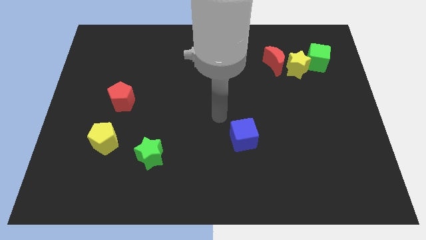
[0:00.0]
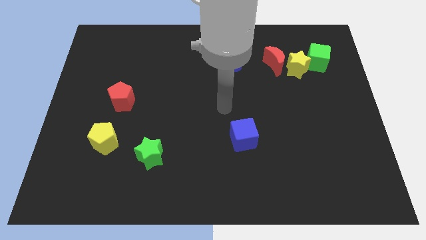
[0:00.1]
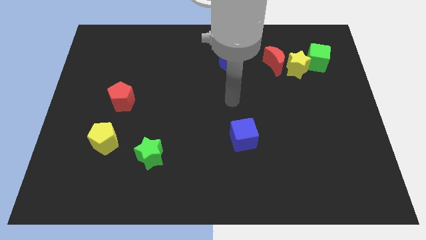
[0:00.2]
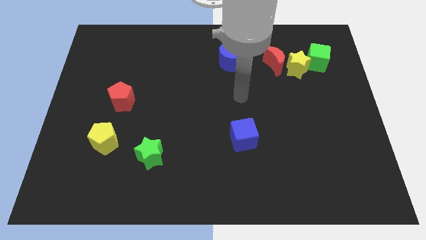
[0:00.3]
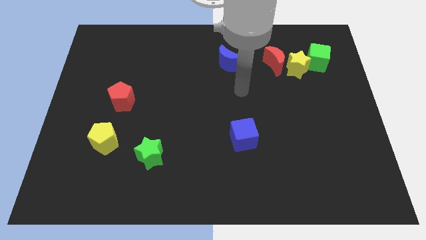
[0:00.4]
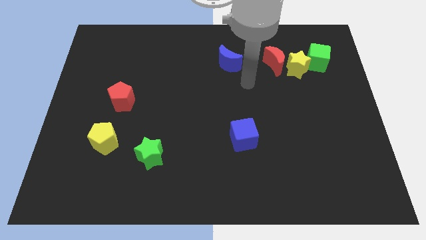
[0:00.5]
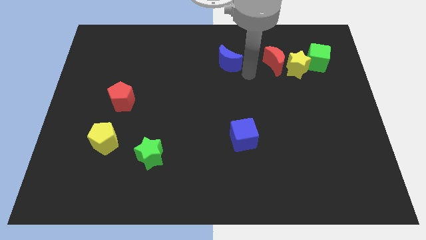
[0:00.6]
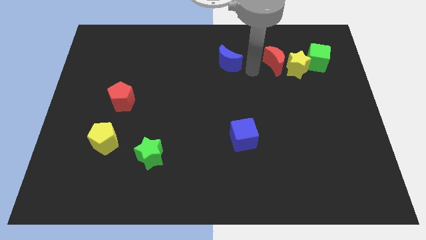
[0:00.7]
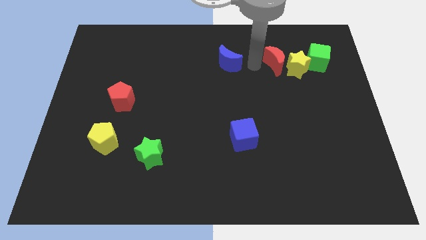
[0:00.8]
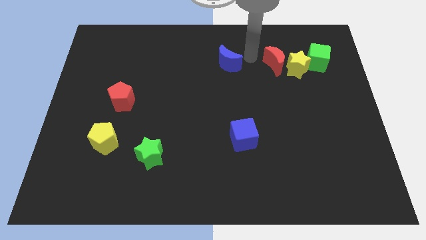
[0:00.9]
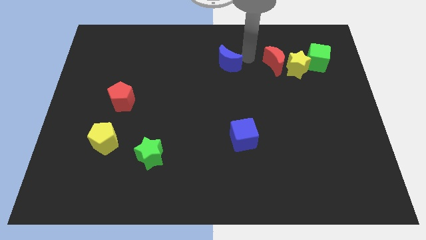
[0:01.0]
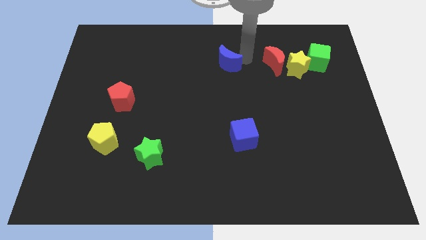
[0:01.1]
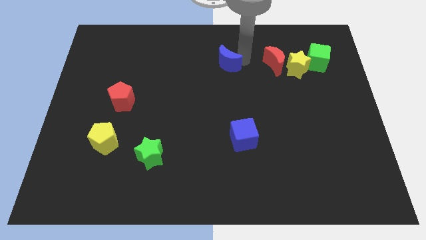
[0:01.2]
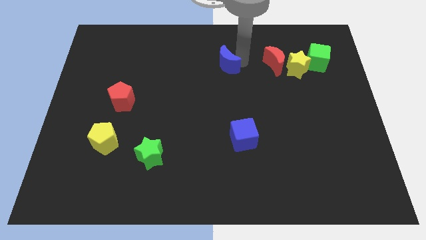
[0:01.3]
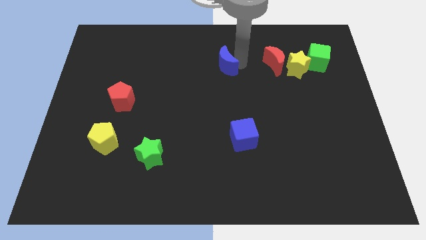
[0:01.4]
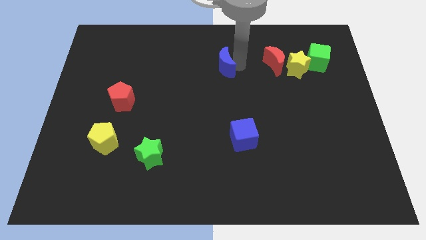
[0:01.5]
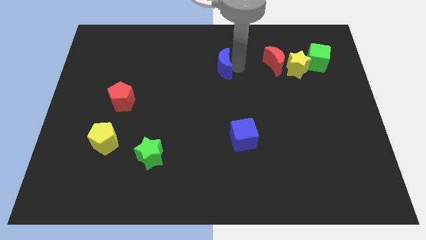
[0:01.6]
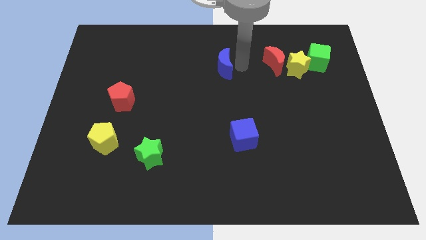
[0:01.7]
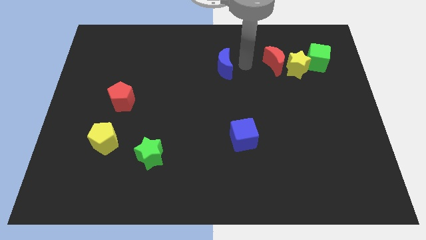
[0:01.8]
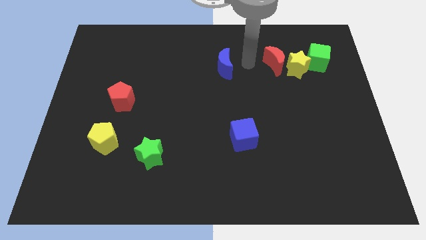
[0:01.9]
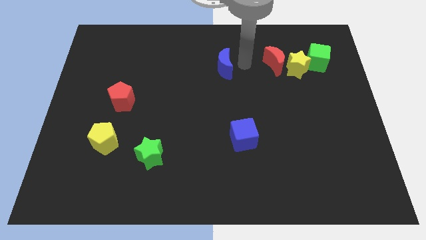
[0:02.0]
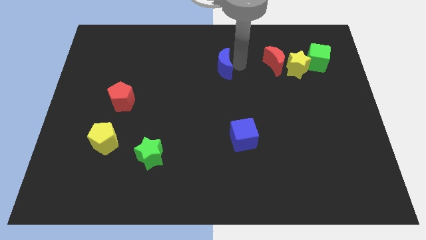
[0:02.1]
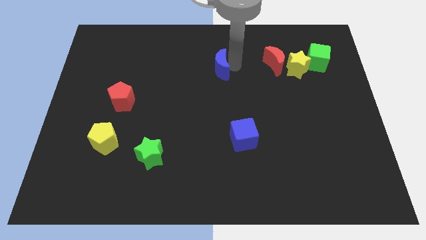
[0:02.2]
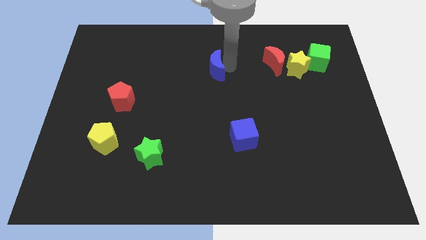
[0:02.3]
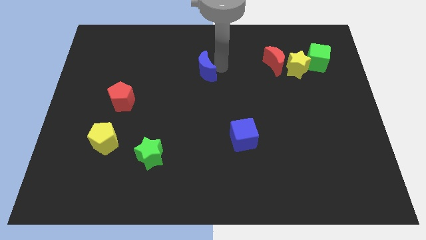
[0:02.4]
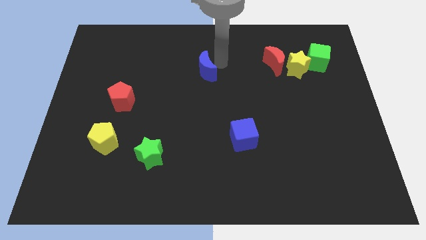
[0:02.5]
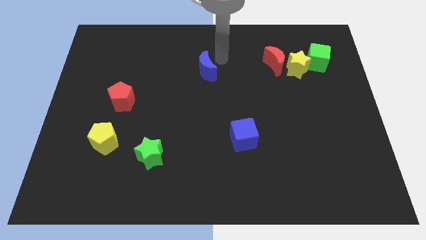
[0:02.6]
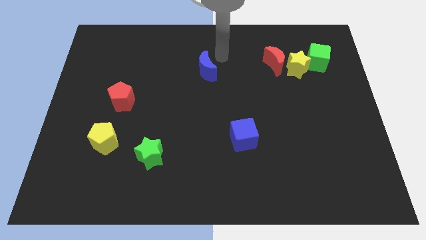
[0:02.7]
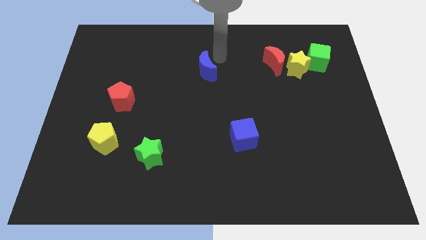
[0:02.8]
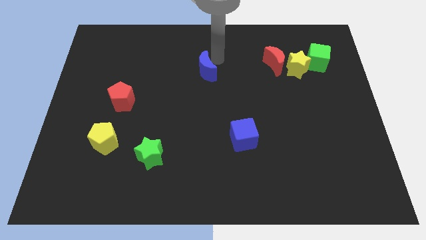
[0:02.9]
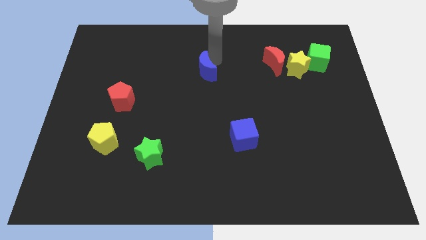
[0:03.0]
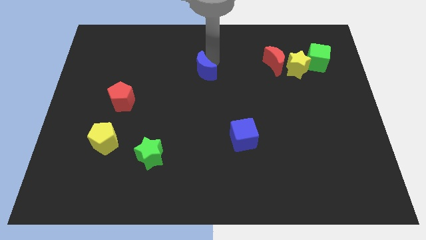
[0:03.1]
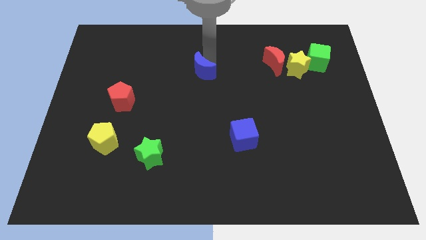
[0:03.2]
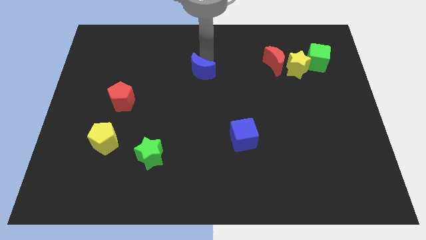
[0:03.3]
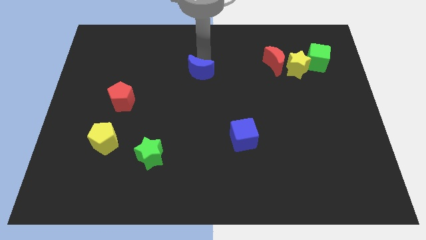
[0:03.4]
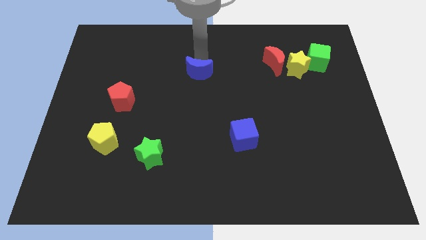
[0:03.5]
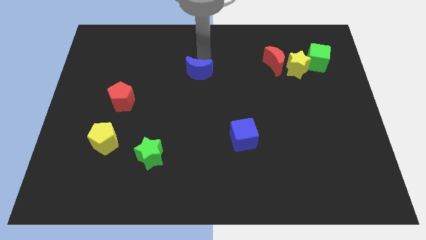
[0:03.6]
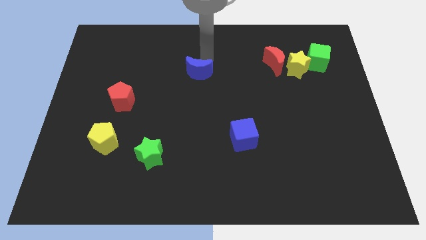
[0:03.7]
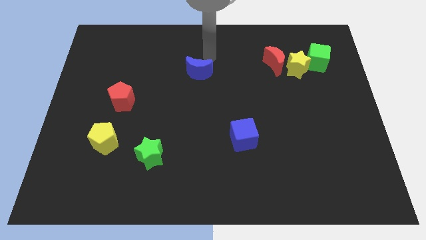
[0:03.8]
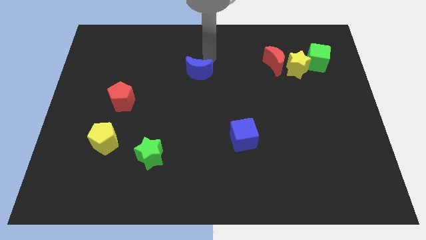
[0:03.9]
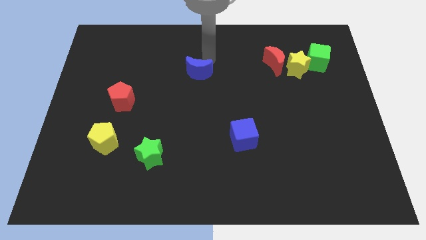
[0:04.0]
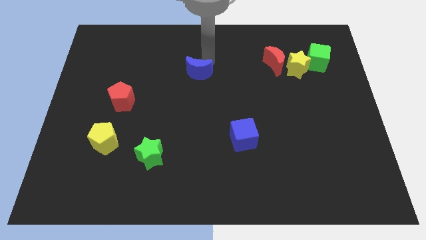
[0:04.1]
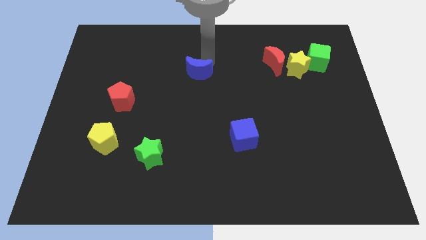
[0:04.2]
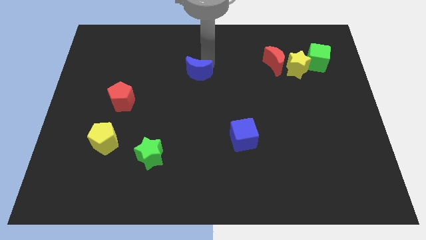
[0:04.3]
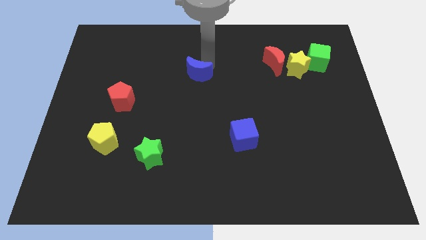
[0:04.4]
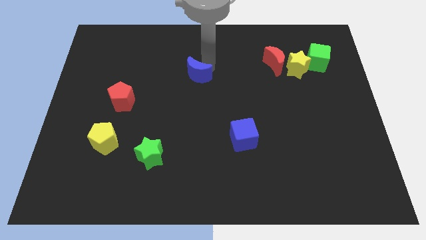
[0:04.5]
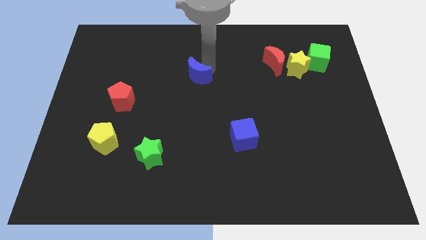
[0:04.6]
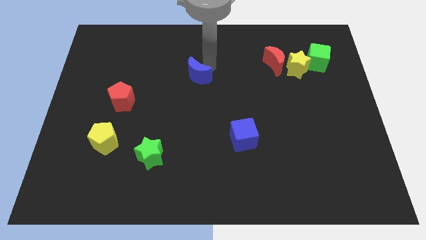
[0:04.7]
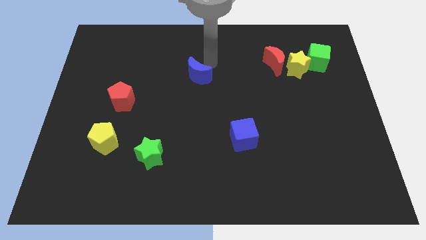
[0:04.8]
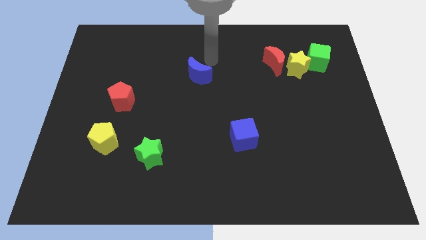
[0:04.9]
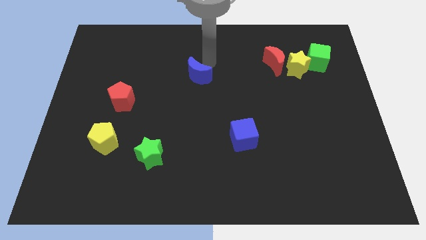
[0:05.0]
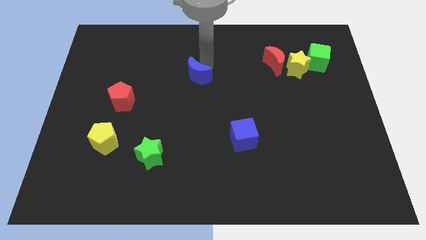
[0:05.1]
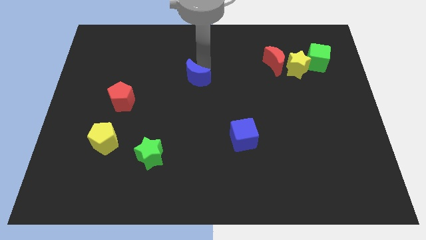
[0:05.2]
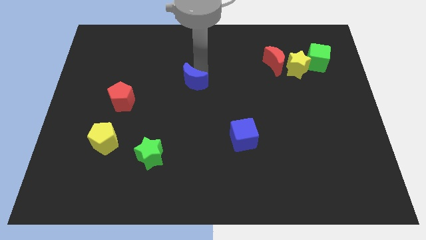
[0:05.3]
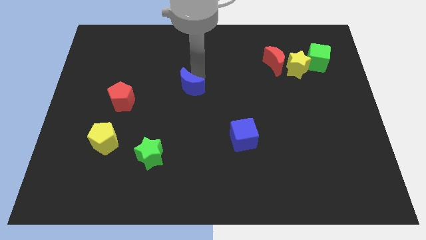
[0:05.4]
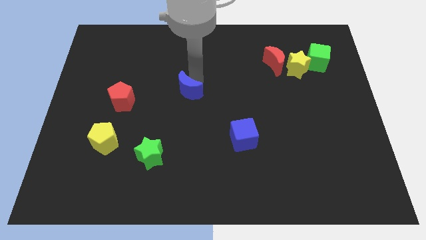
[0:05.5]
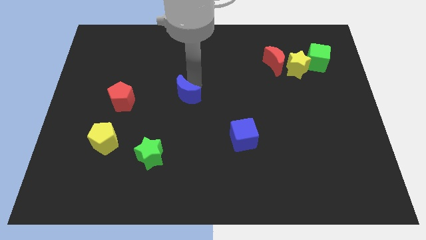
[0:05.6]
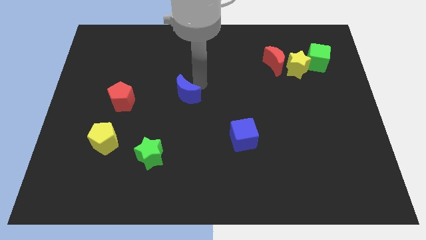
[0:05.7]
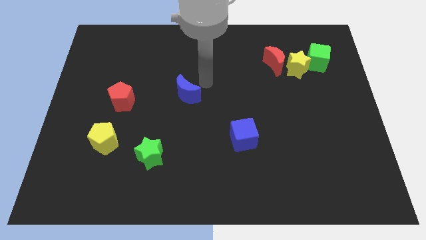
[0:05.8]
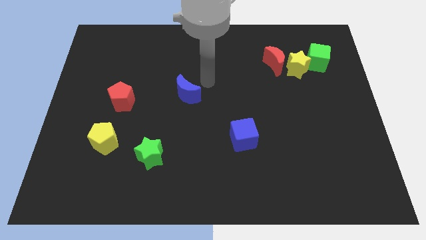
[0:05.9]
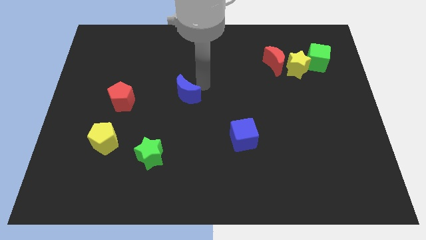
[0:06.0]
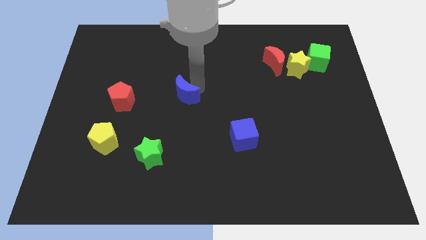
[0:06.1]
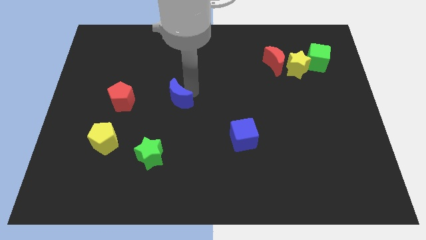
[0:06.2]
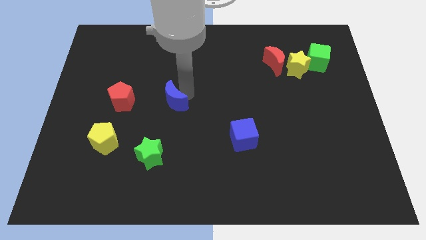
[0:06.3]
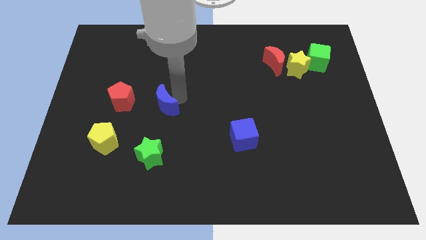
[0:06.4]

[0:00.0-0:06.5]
slide the blue moon diagonally down and to the left

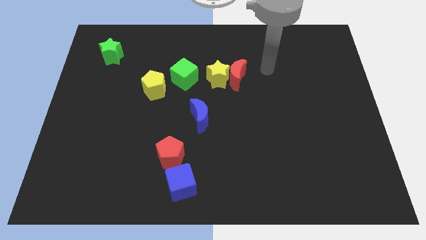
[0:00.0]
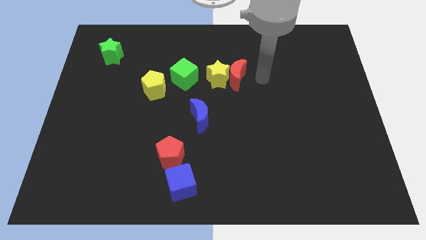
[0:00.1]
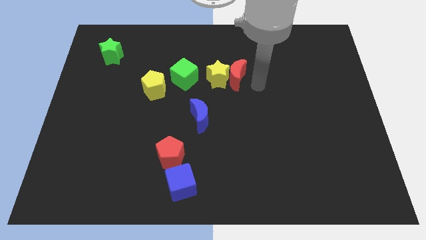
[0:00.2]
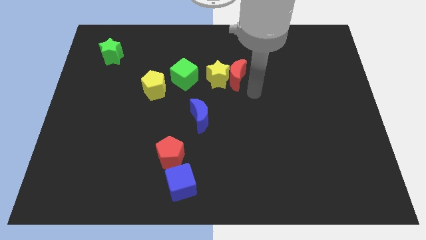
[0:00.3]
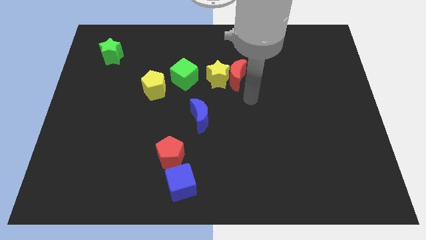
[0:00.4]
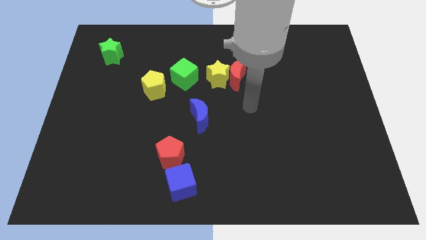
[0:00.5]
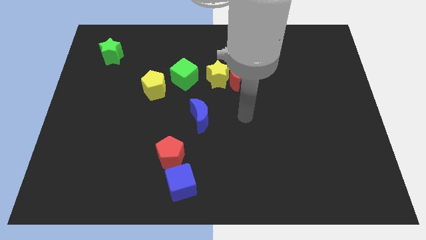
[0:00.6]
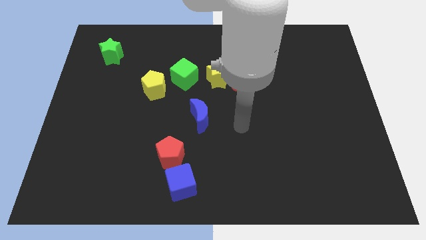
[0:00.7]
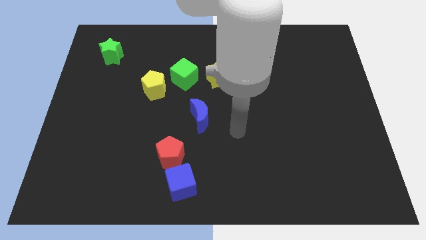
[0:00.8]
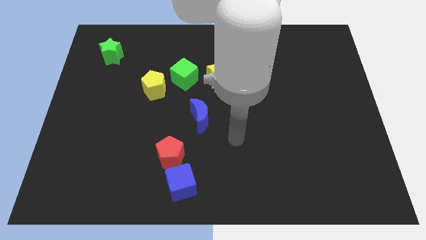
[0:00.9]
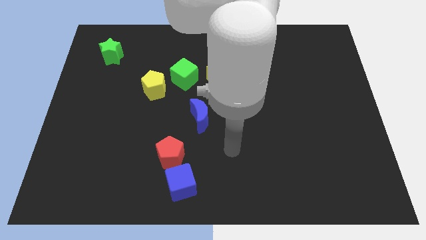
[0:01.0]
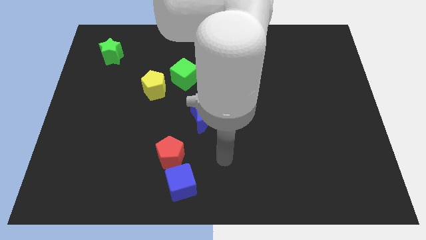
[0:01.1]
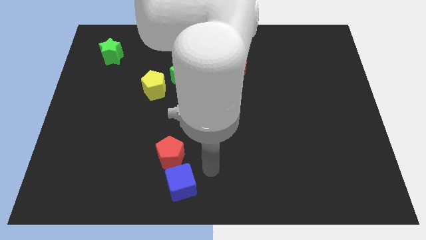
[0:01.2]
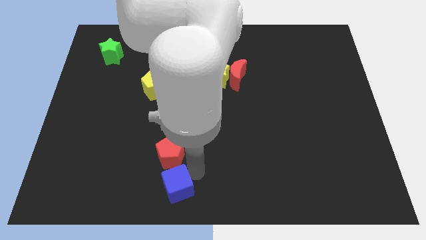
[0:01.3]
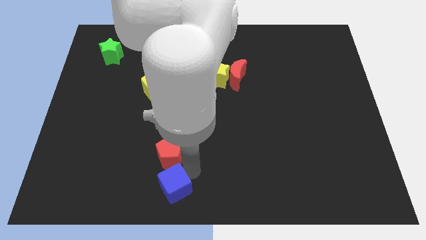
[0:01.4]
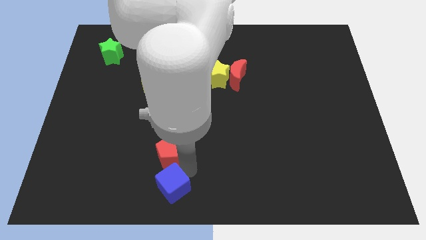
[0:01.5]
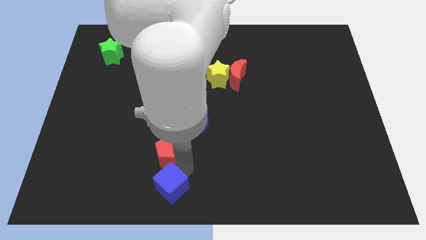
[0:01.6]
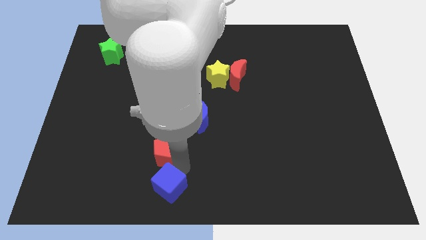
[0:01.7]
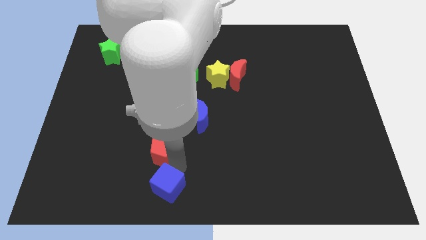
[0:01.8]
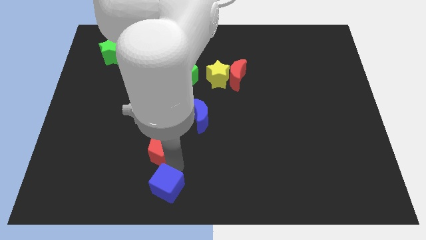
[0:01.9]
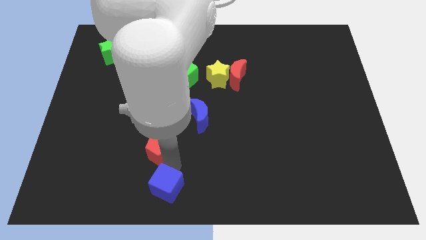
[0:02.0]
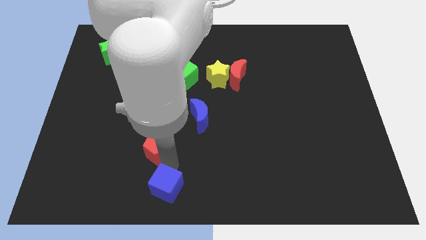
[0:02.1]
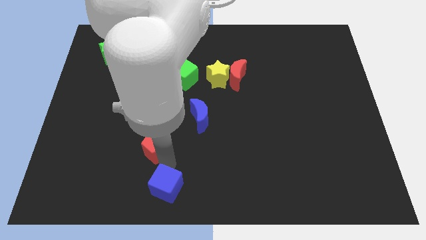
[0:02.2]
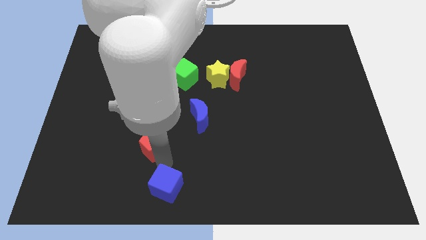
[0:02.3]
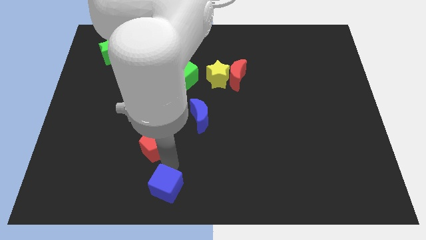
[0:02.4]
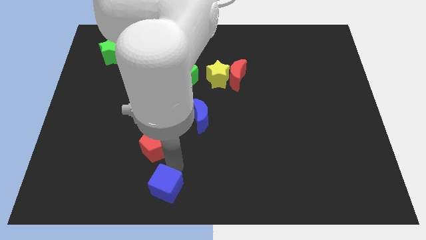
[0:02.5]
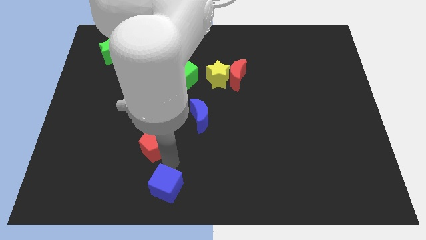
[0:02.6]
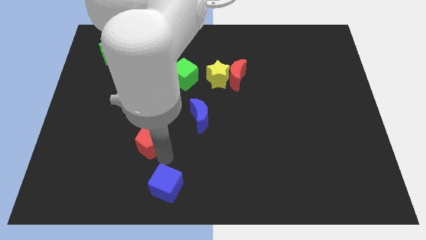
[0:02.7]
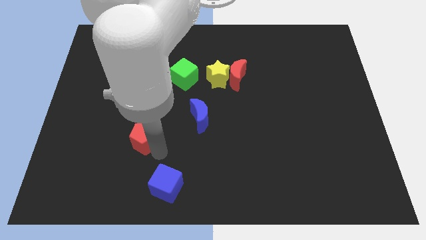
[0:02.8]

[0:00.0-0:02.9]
move the red pentagon upwards and then left somewhat
